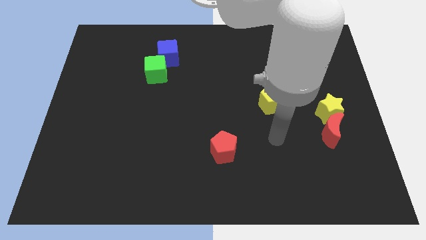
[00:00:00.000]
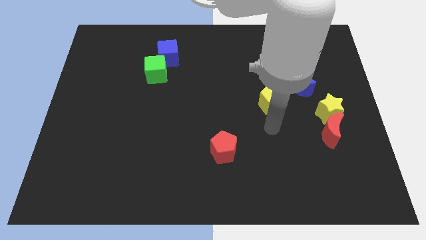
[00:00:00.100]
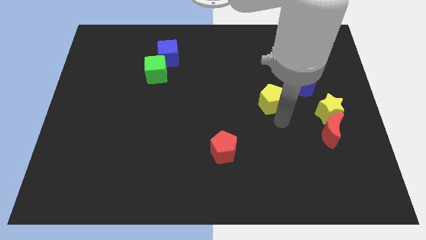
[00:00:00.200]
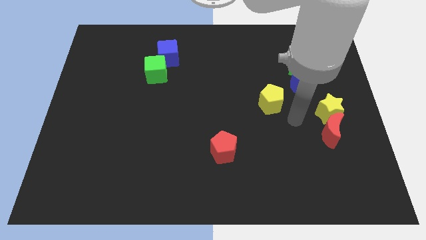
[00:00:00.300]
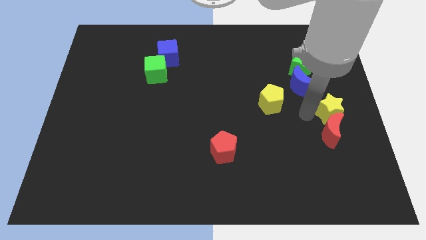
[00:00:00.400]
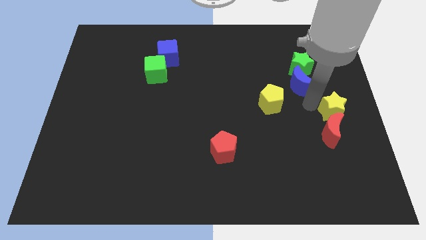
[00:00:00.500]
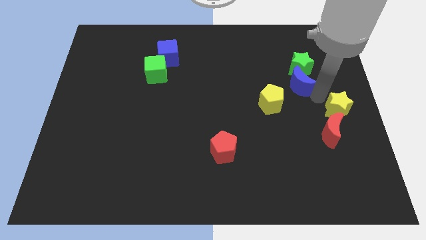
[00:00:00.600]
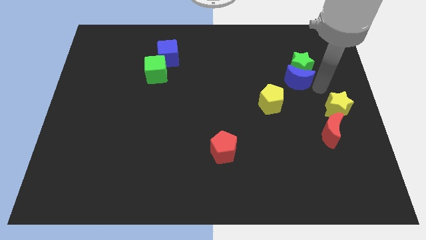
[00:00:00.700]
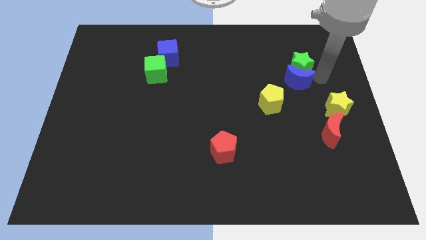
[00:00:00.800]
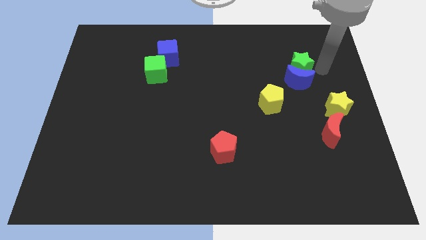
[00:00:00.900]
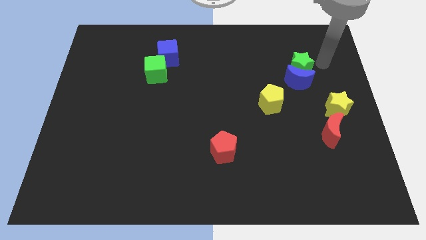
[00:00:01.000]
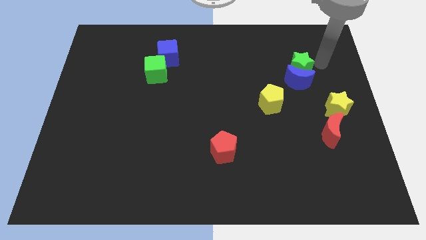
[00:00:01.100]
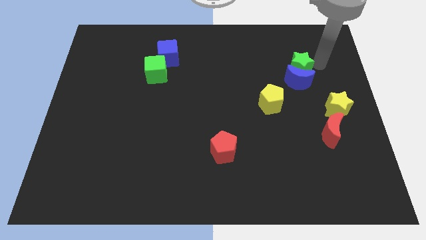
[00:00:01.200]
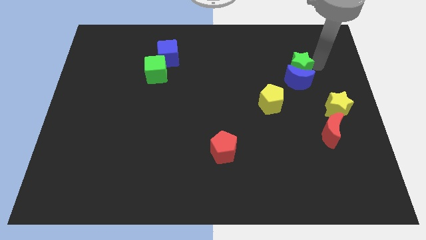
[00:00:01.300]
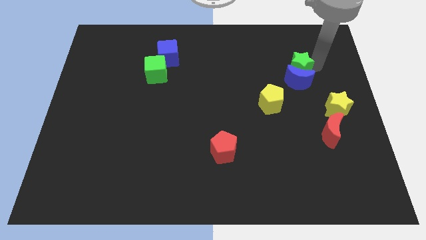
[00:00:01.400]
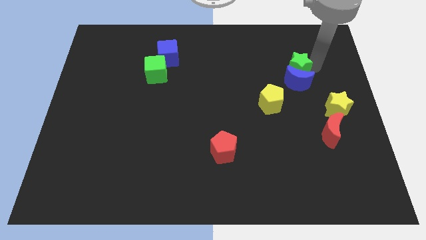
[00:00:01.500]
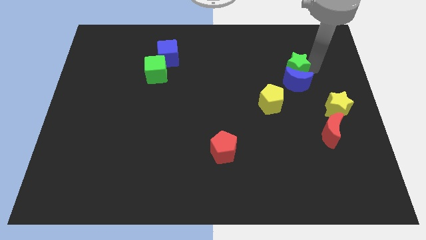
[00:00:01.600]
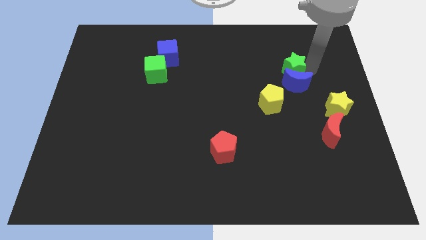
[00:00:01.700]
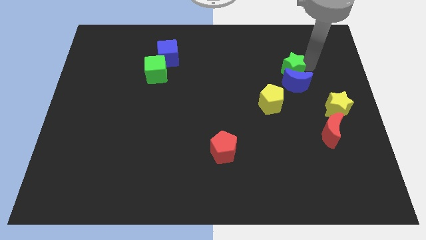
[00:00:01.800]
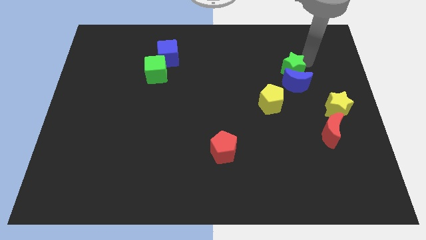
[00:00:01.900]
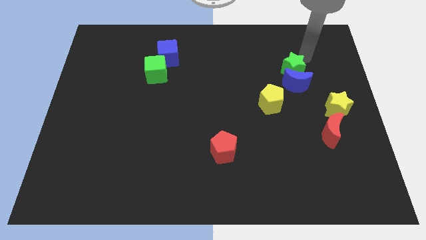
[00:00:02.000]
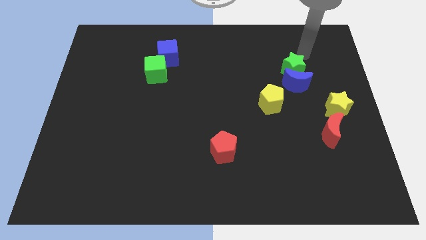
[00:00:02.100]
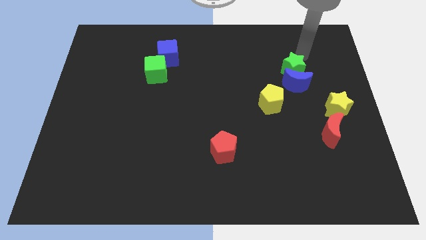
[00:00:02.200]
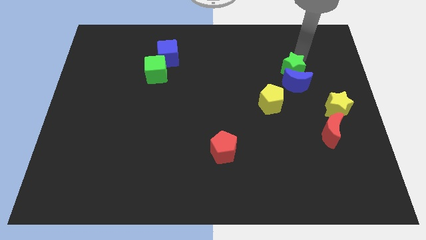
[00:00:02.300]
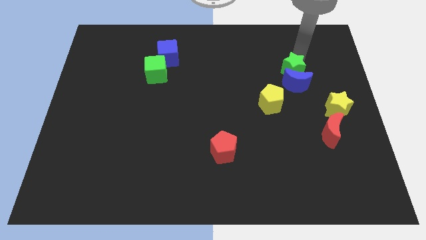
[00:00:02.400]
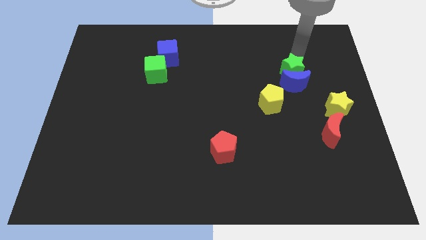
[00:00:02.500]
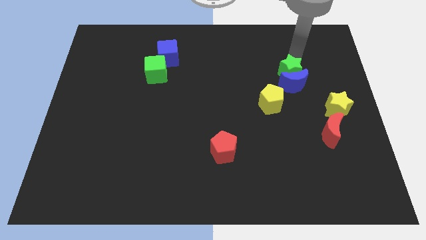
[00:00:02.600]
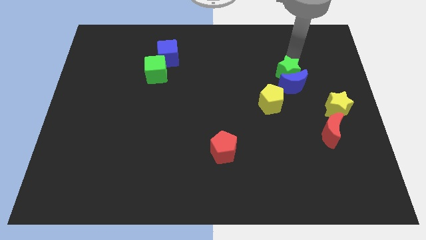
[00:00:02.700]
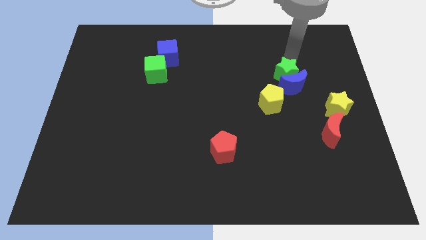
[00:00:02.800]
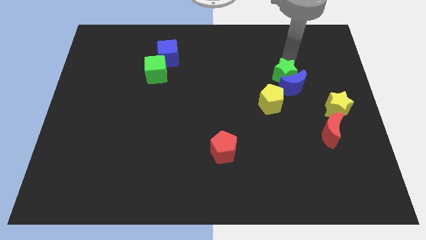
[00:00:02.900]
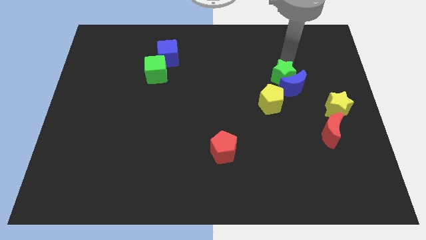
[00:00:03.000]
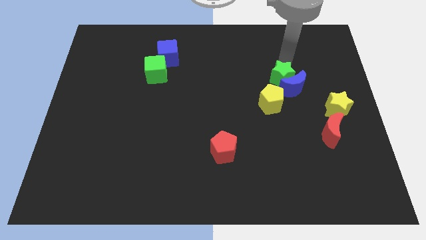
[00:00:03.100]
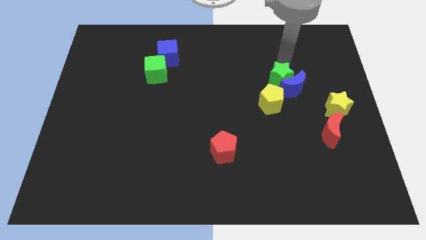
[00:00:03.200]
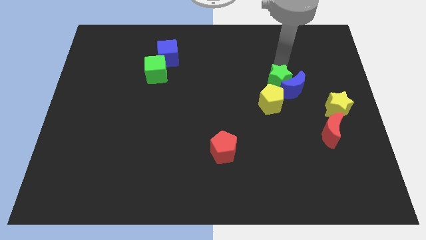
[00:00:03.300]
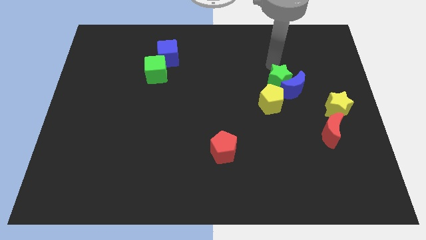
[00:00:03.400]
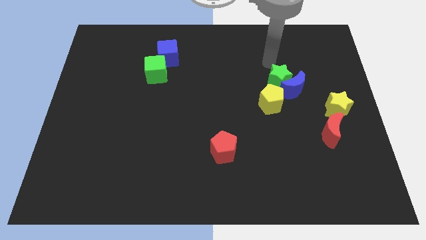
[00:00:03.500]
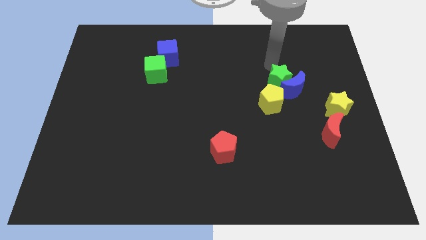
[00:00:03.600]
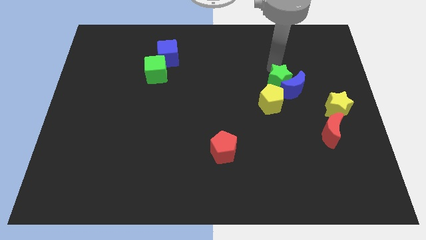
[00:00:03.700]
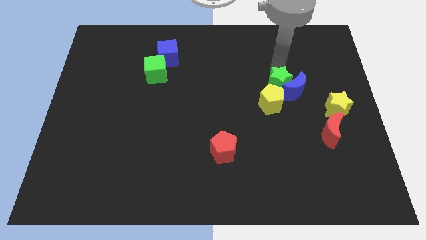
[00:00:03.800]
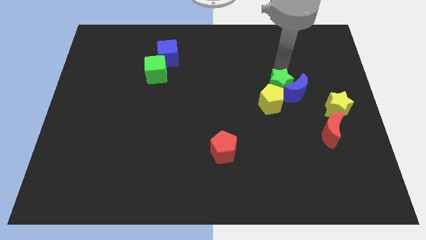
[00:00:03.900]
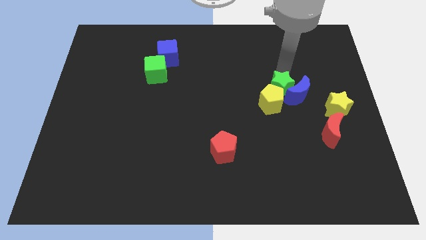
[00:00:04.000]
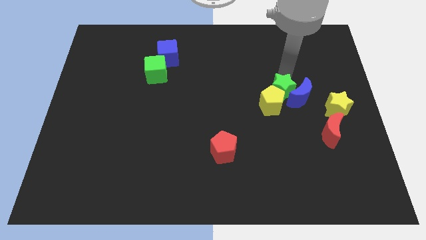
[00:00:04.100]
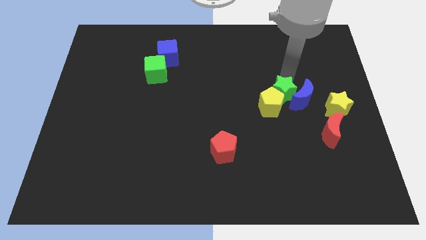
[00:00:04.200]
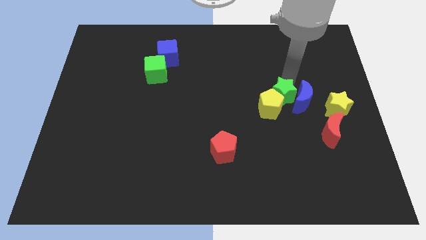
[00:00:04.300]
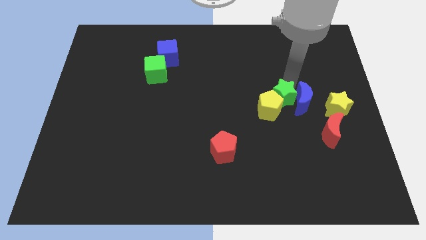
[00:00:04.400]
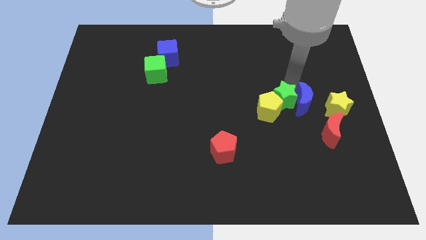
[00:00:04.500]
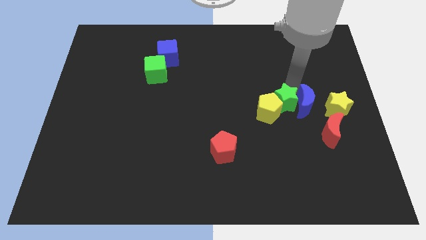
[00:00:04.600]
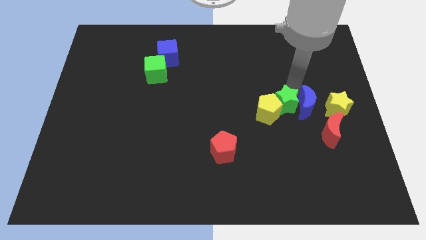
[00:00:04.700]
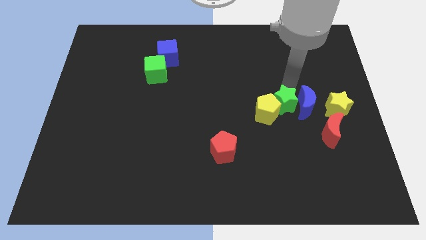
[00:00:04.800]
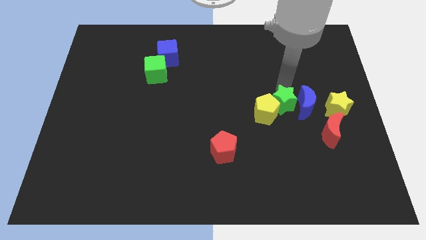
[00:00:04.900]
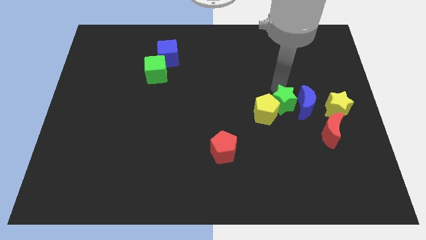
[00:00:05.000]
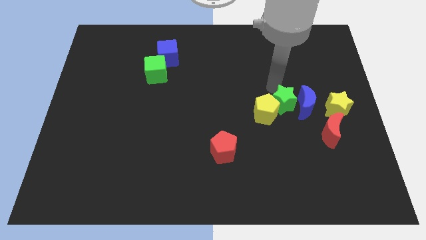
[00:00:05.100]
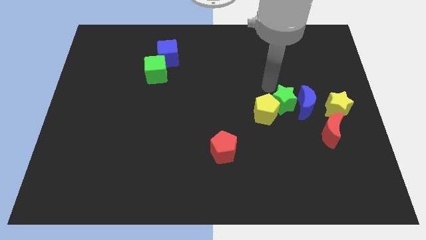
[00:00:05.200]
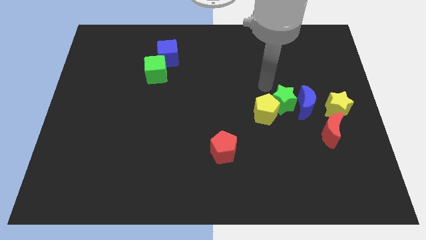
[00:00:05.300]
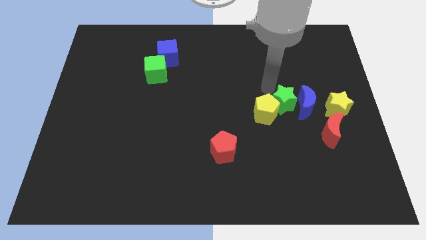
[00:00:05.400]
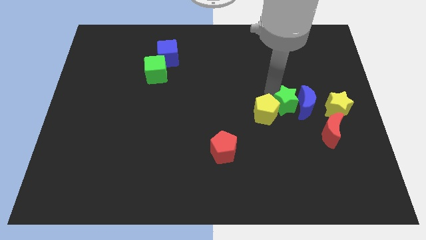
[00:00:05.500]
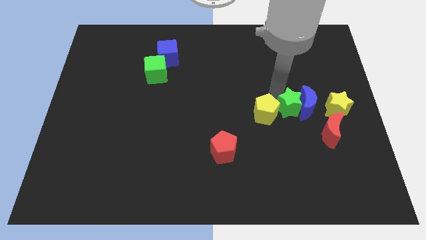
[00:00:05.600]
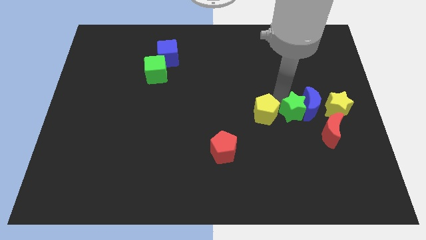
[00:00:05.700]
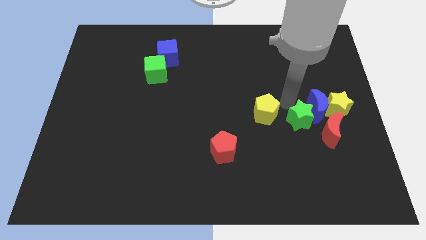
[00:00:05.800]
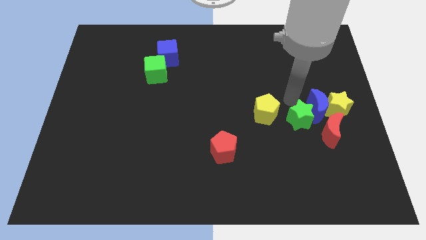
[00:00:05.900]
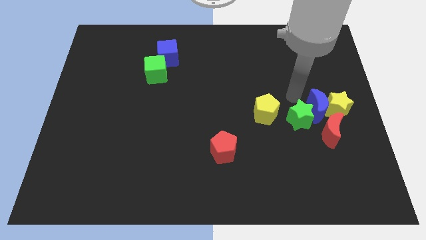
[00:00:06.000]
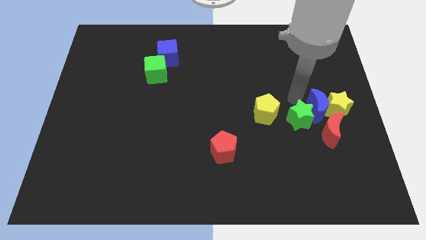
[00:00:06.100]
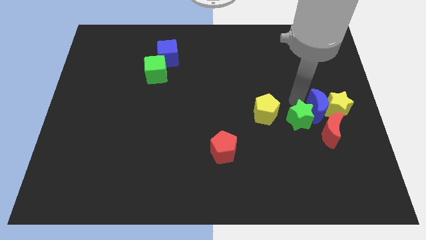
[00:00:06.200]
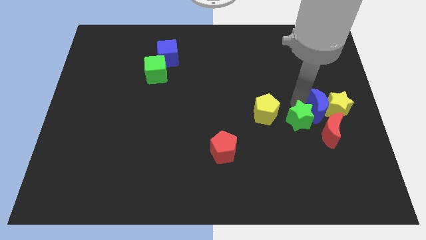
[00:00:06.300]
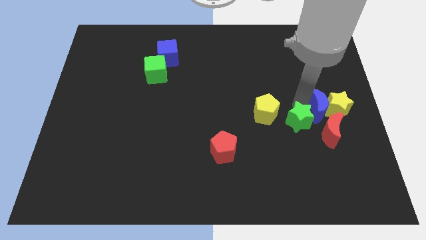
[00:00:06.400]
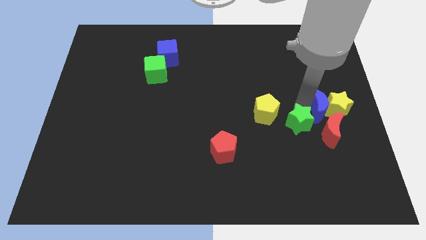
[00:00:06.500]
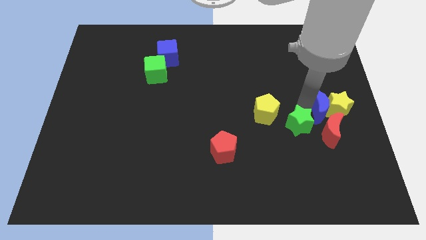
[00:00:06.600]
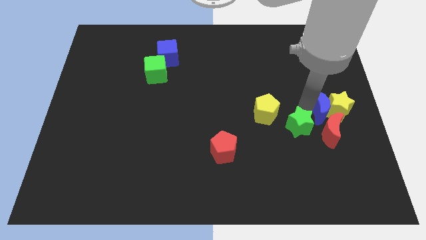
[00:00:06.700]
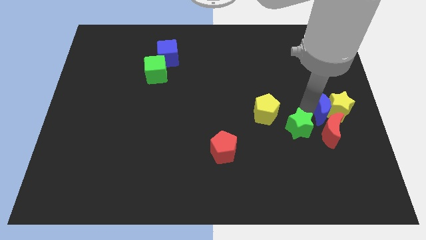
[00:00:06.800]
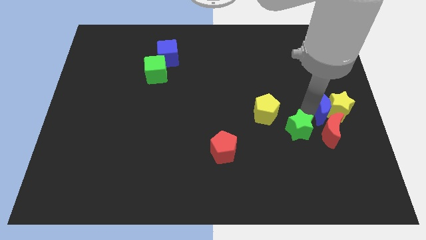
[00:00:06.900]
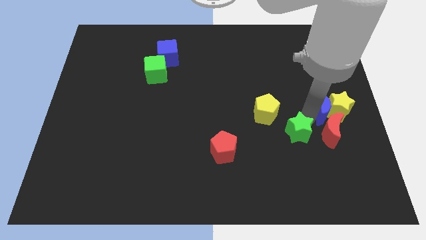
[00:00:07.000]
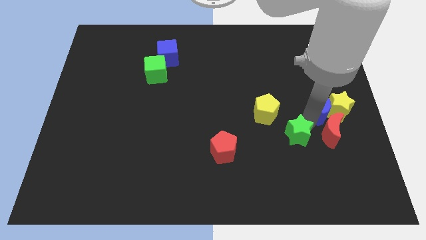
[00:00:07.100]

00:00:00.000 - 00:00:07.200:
slide the green star downwards

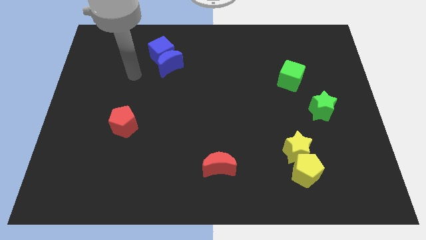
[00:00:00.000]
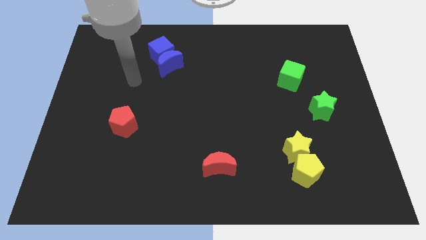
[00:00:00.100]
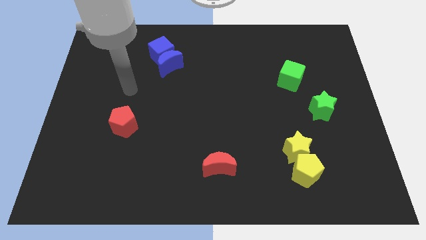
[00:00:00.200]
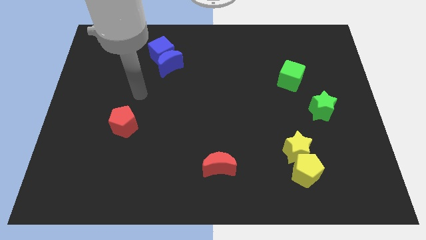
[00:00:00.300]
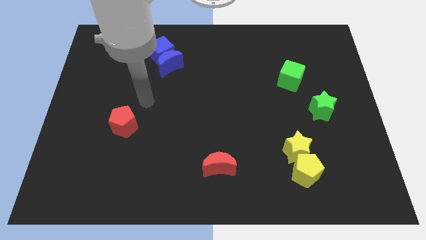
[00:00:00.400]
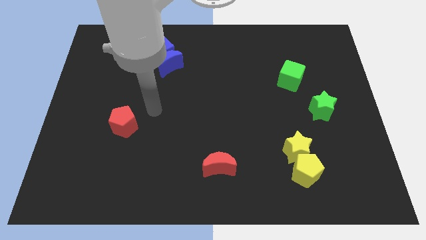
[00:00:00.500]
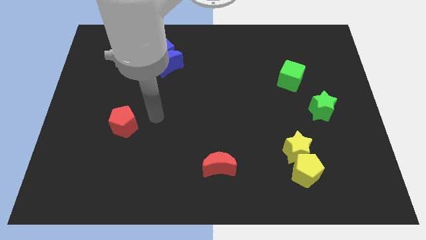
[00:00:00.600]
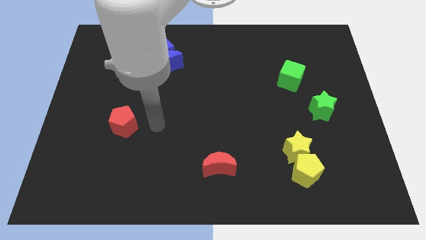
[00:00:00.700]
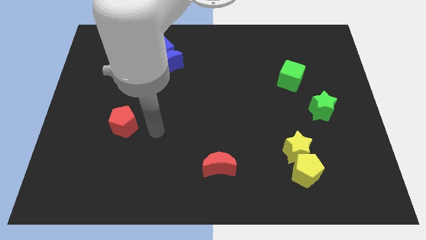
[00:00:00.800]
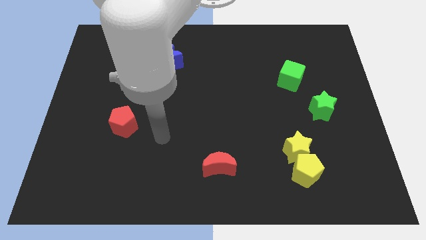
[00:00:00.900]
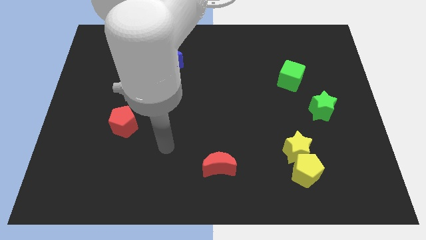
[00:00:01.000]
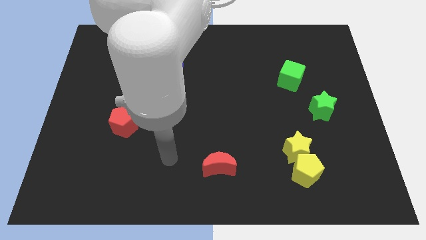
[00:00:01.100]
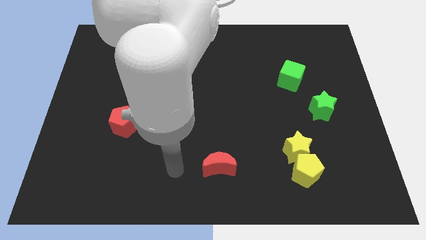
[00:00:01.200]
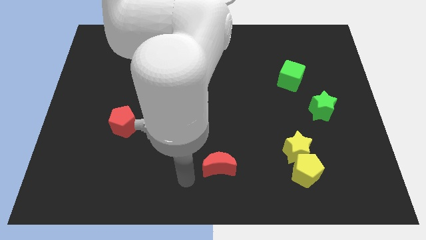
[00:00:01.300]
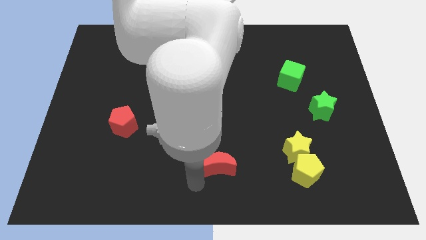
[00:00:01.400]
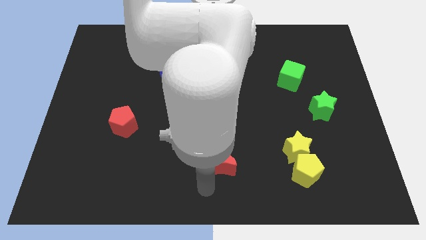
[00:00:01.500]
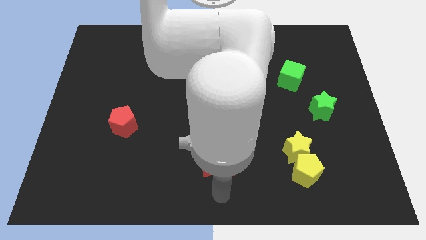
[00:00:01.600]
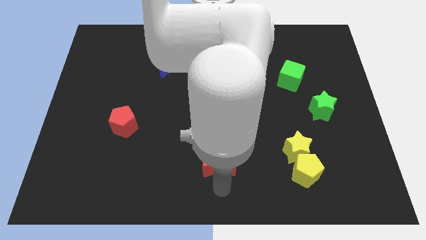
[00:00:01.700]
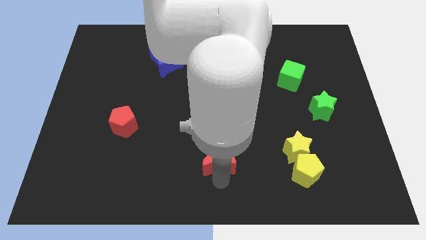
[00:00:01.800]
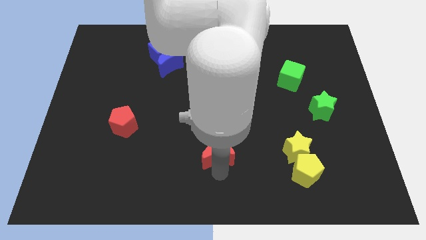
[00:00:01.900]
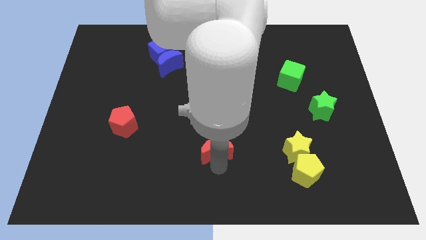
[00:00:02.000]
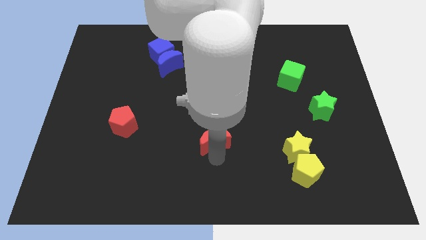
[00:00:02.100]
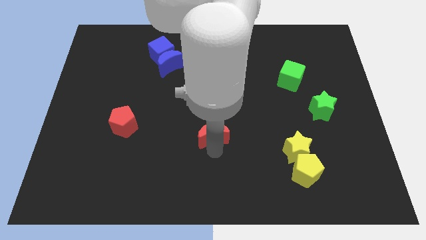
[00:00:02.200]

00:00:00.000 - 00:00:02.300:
slide the red moon a little bit upwards
